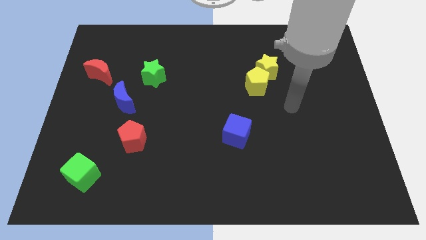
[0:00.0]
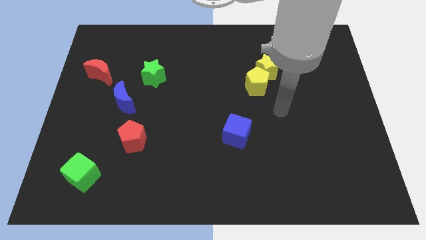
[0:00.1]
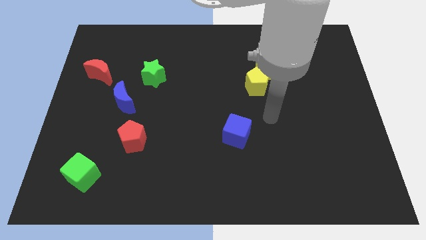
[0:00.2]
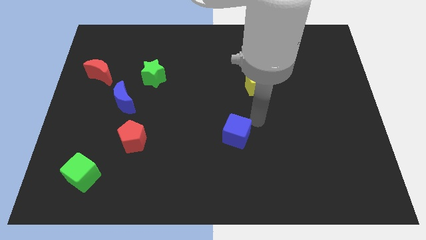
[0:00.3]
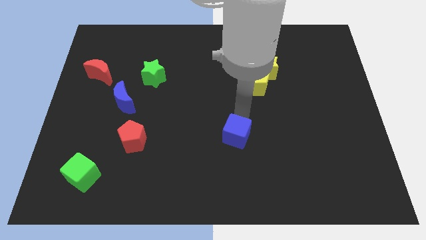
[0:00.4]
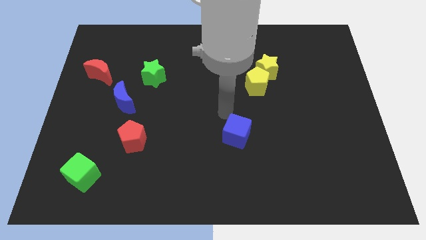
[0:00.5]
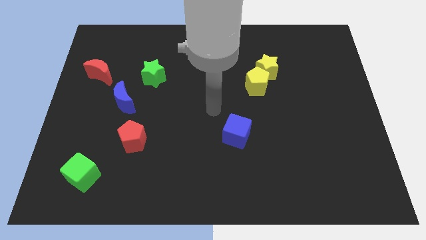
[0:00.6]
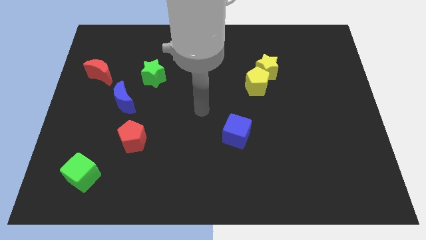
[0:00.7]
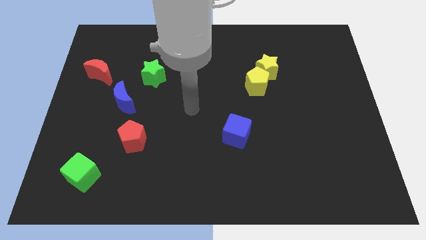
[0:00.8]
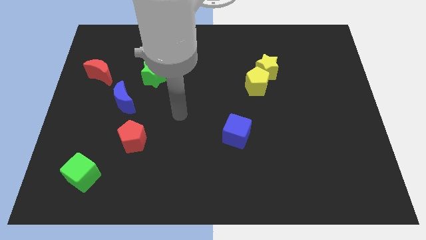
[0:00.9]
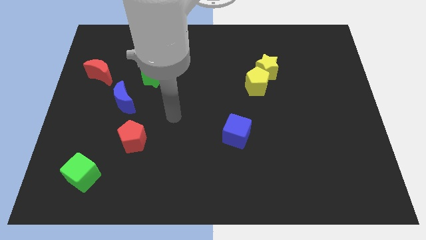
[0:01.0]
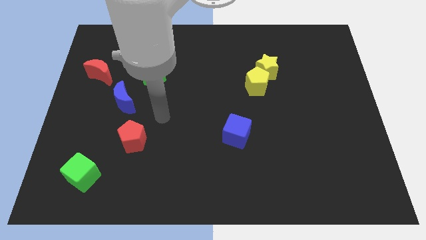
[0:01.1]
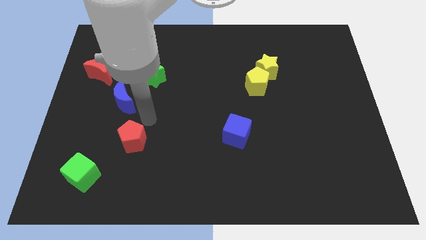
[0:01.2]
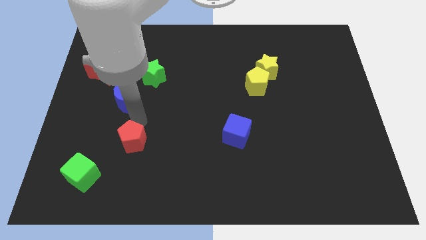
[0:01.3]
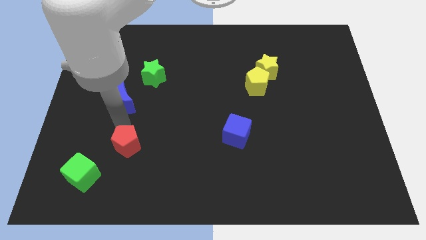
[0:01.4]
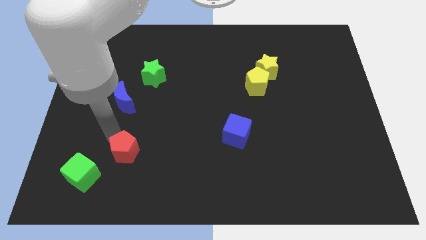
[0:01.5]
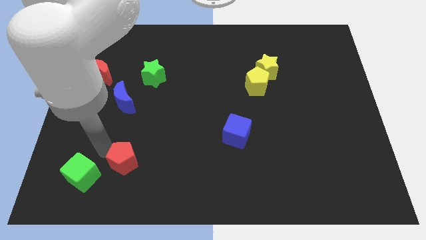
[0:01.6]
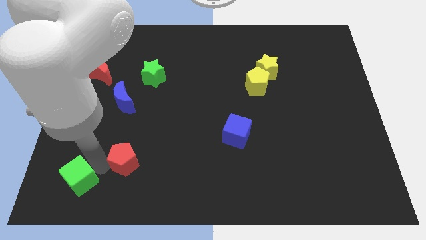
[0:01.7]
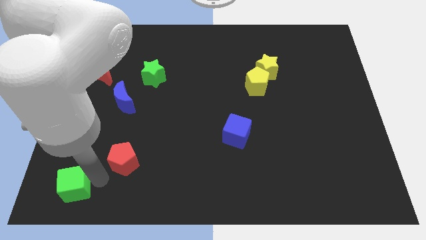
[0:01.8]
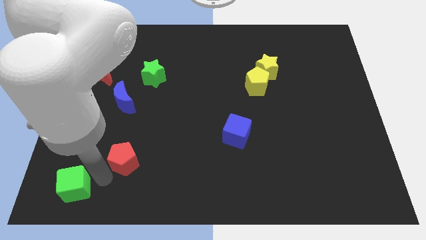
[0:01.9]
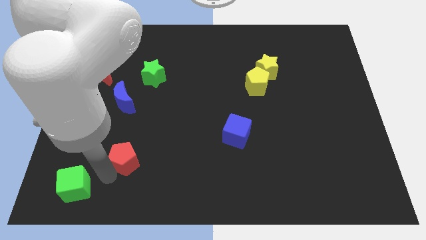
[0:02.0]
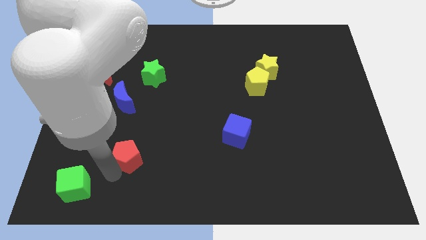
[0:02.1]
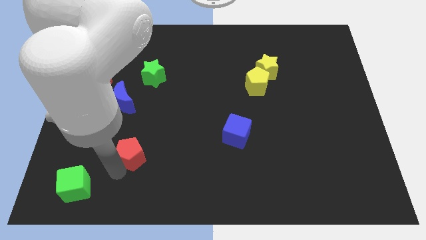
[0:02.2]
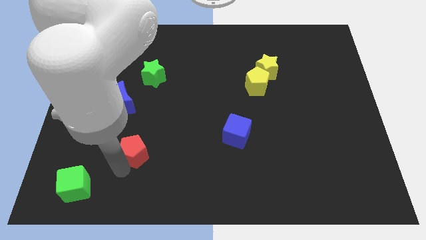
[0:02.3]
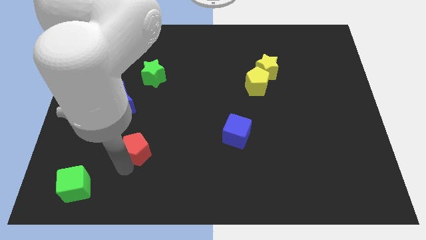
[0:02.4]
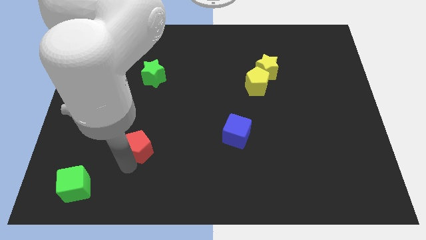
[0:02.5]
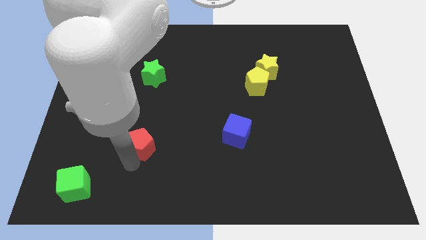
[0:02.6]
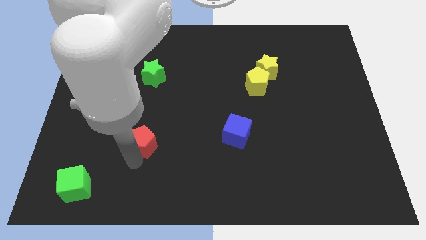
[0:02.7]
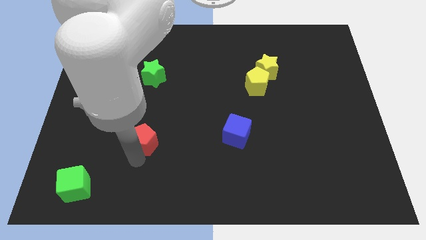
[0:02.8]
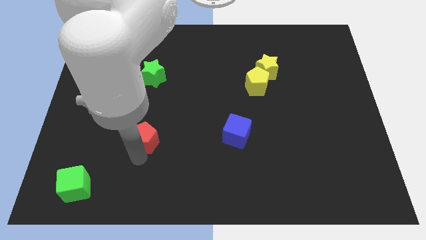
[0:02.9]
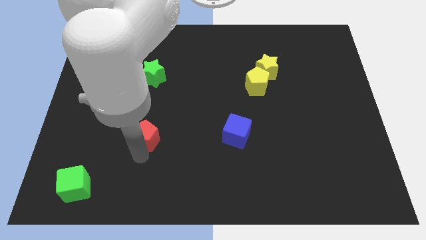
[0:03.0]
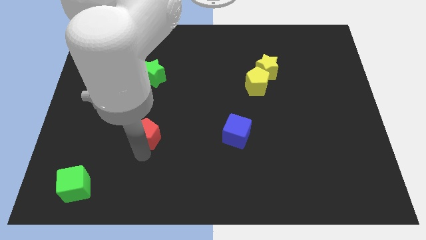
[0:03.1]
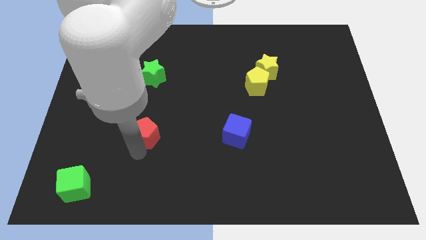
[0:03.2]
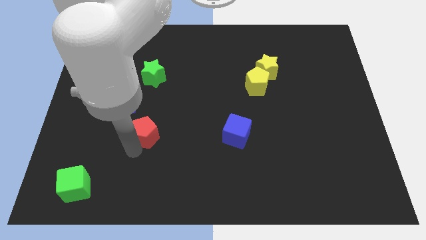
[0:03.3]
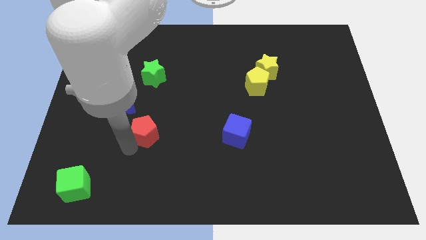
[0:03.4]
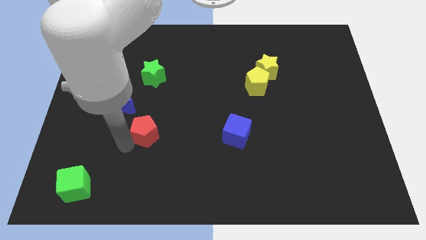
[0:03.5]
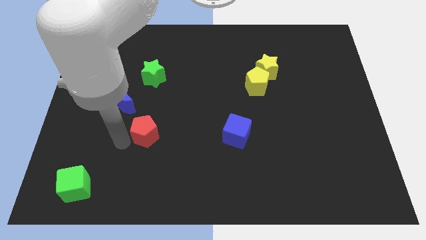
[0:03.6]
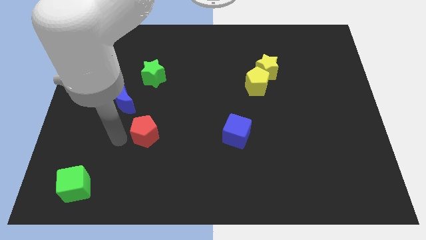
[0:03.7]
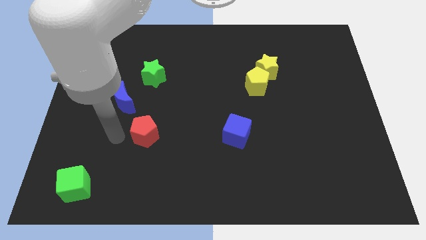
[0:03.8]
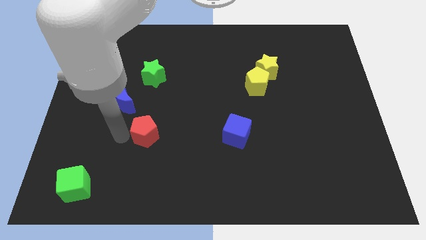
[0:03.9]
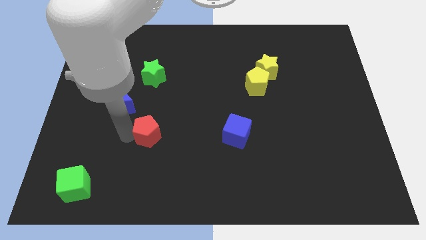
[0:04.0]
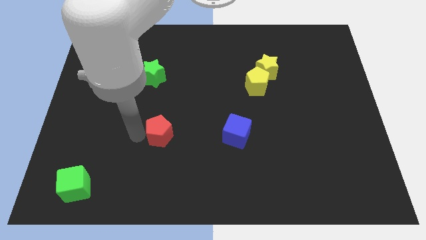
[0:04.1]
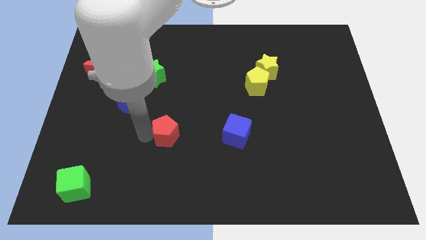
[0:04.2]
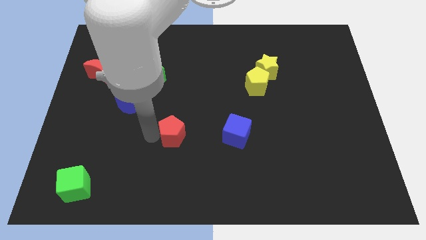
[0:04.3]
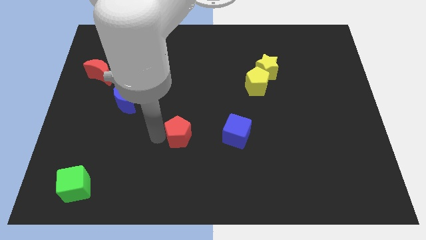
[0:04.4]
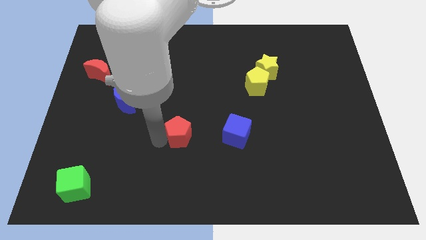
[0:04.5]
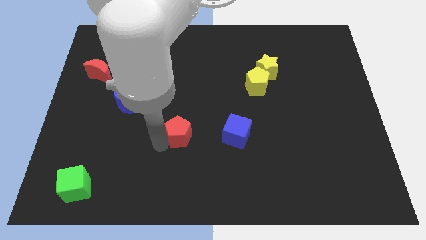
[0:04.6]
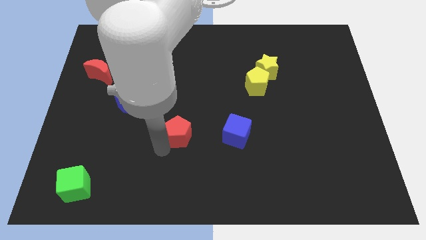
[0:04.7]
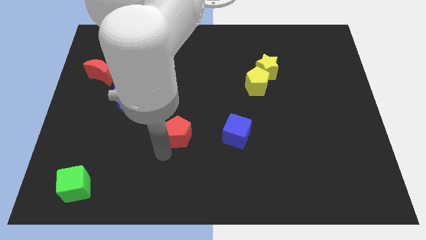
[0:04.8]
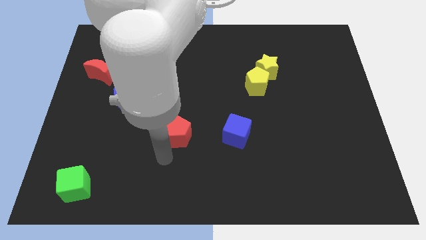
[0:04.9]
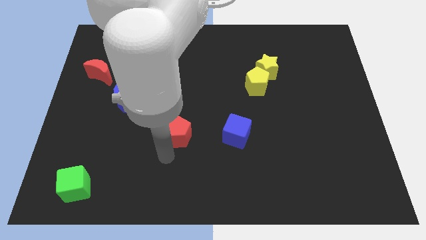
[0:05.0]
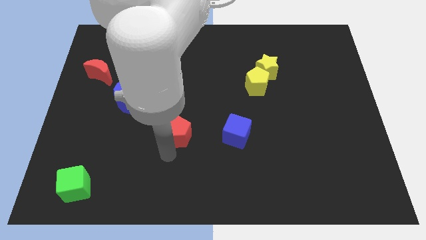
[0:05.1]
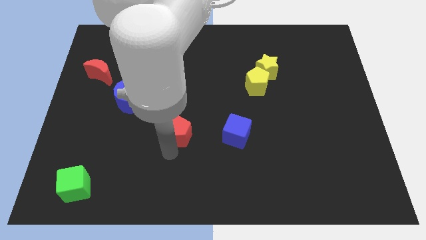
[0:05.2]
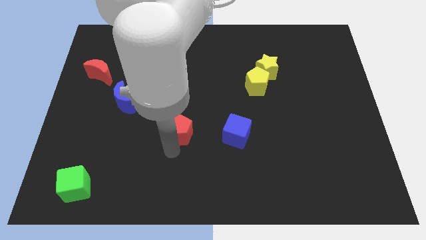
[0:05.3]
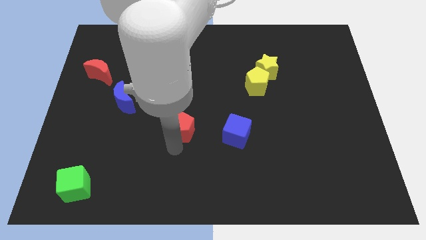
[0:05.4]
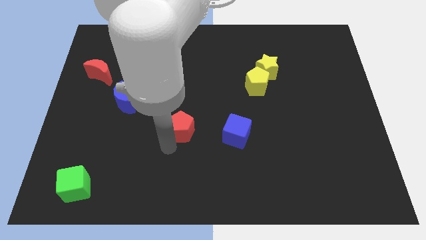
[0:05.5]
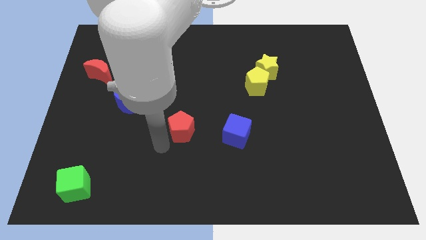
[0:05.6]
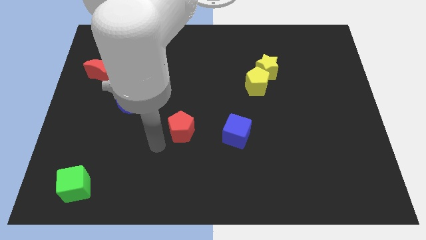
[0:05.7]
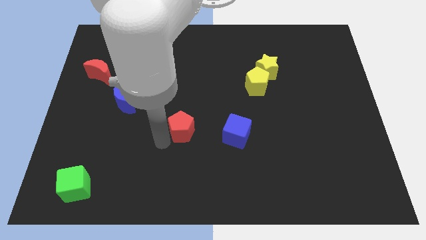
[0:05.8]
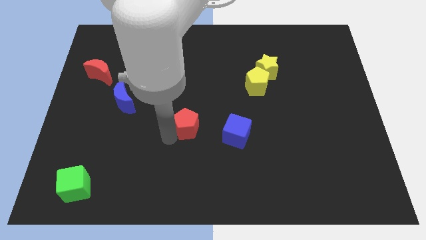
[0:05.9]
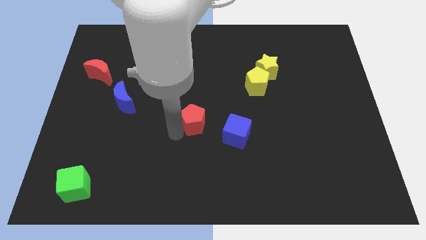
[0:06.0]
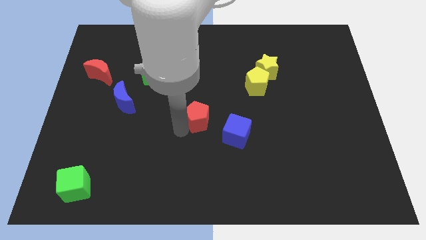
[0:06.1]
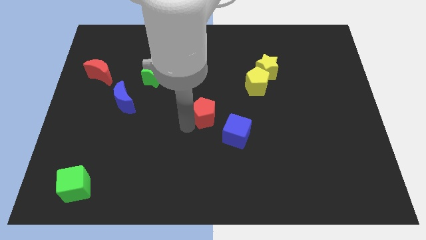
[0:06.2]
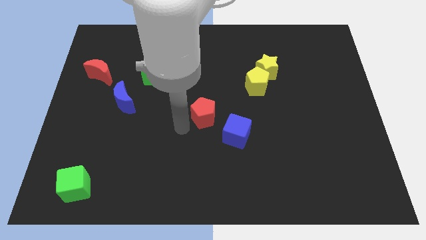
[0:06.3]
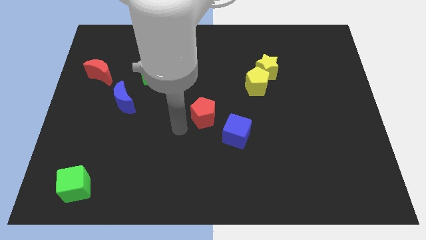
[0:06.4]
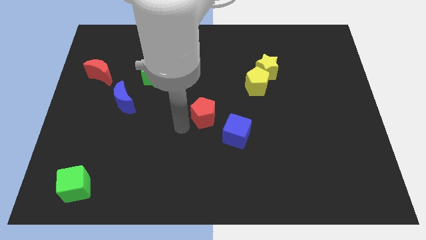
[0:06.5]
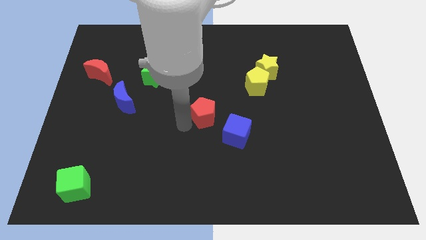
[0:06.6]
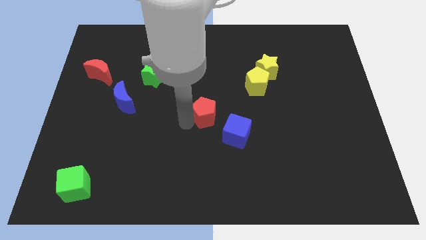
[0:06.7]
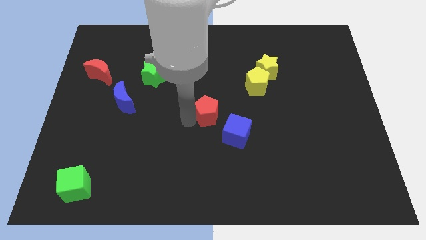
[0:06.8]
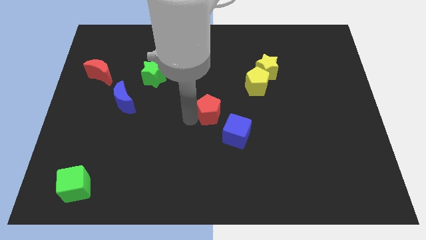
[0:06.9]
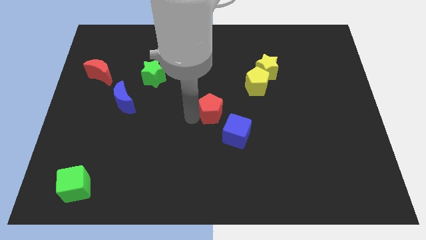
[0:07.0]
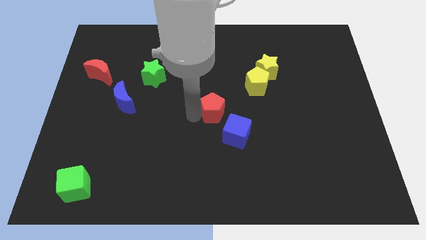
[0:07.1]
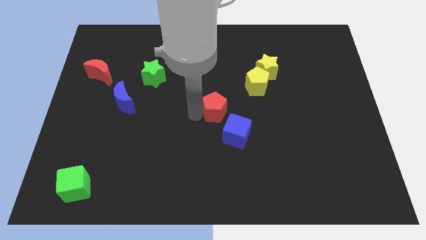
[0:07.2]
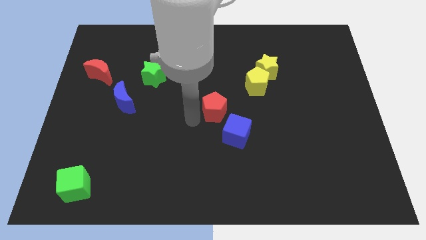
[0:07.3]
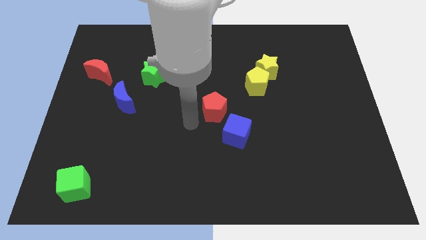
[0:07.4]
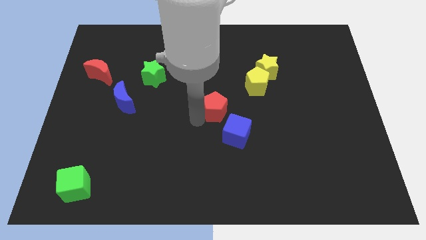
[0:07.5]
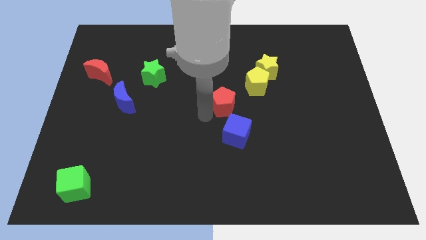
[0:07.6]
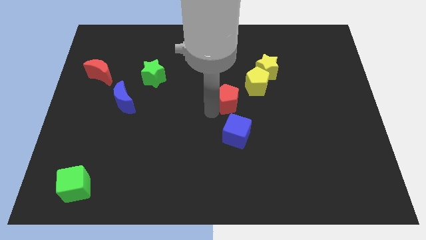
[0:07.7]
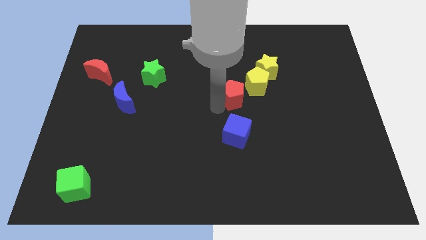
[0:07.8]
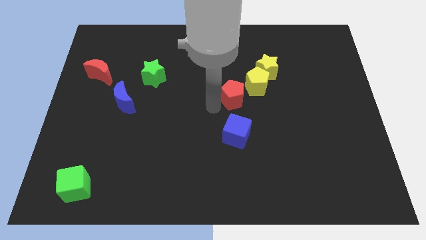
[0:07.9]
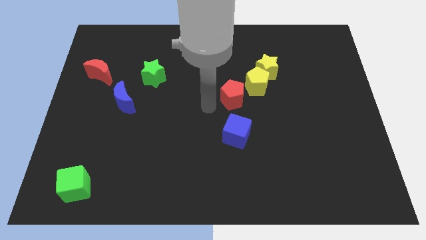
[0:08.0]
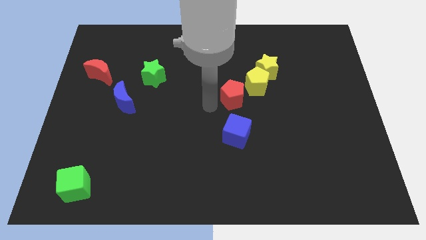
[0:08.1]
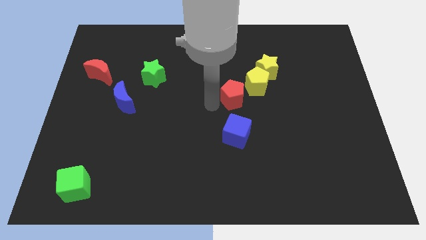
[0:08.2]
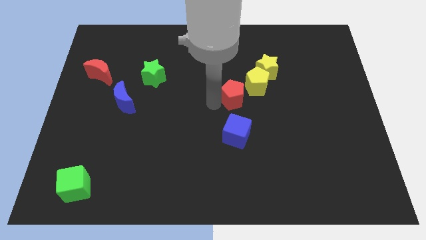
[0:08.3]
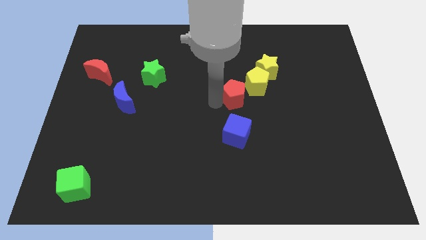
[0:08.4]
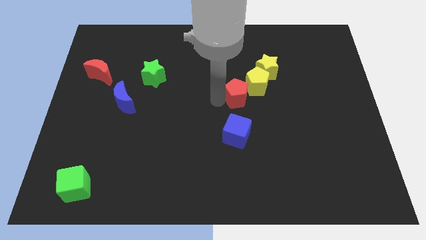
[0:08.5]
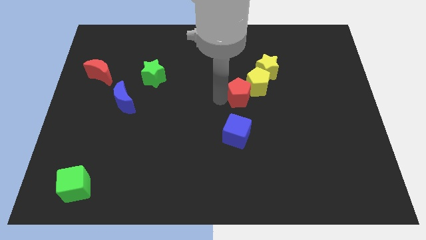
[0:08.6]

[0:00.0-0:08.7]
slide the red pentagon next to the yellow pentagon
